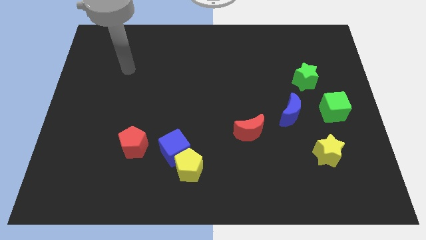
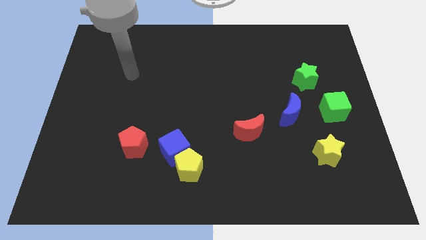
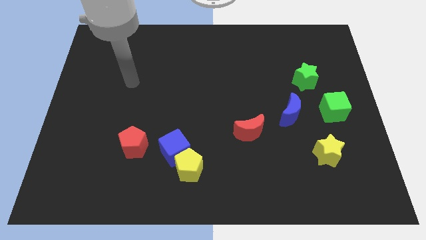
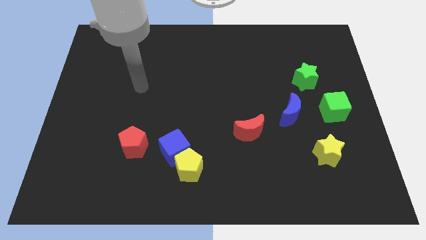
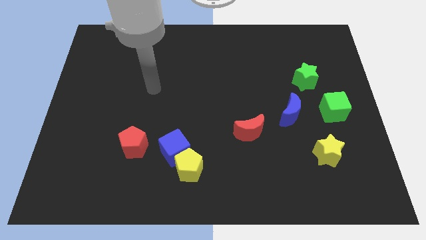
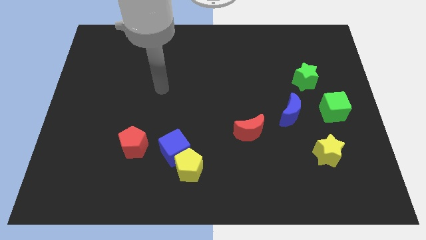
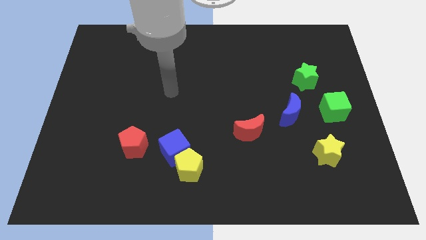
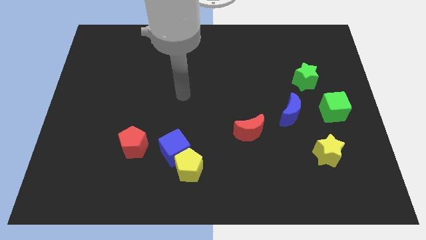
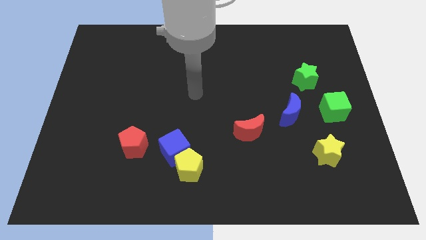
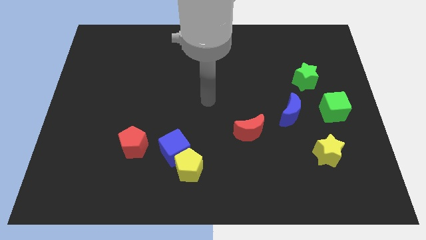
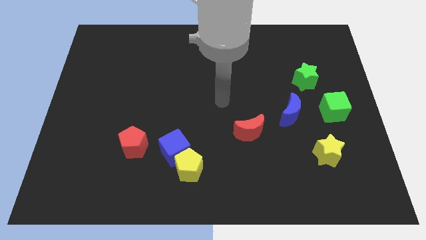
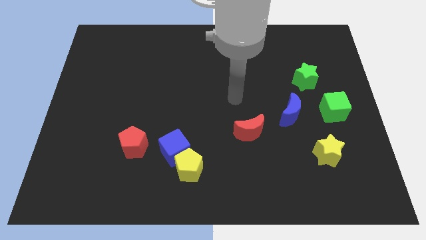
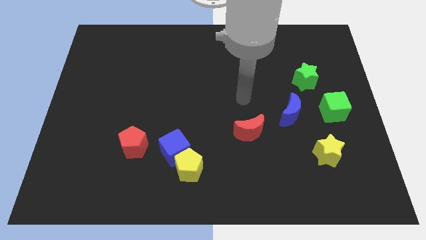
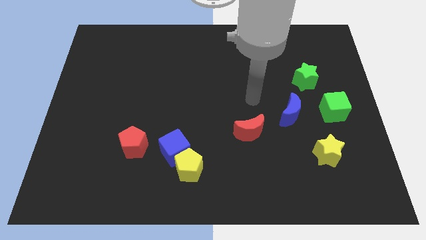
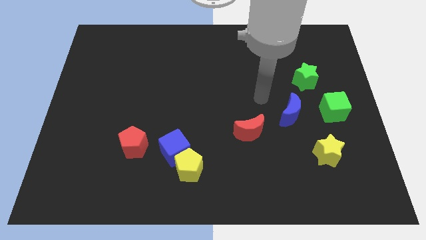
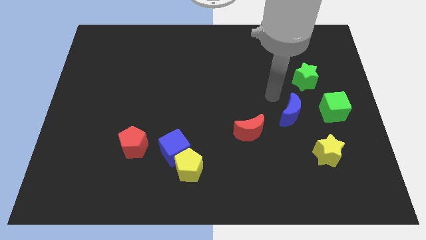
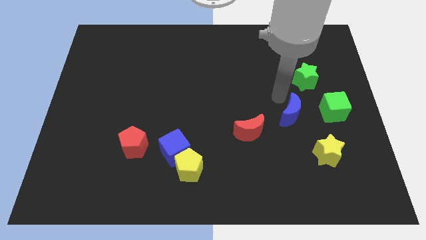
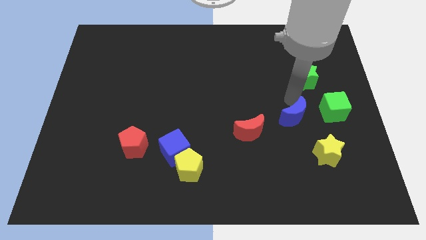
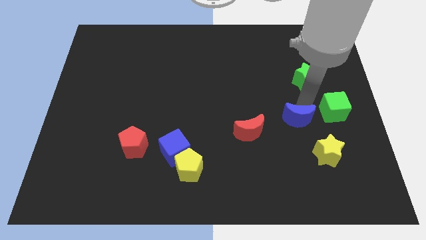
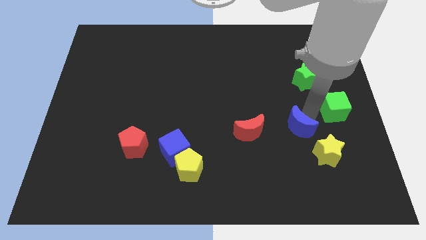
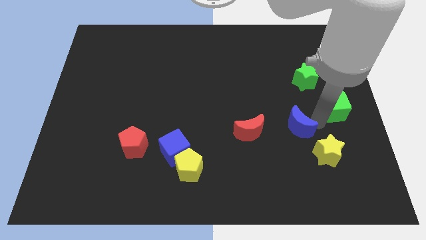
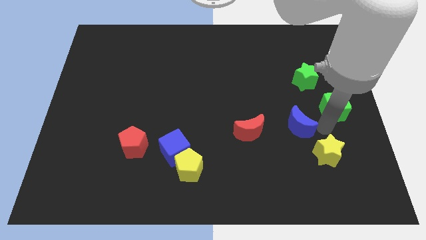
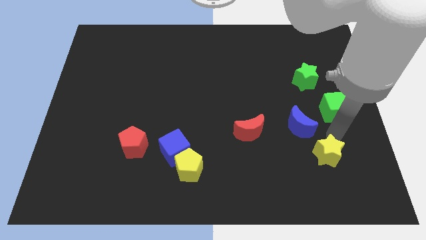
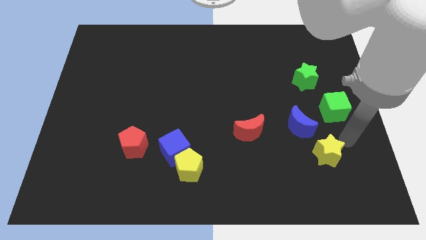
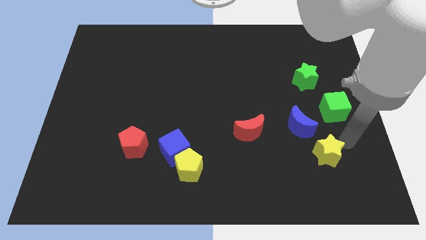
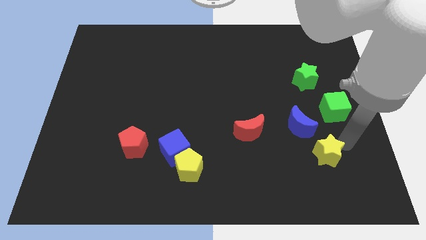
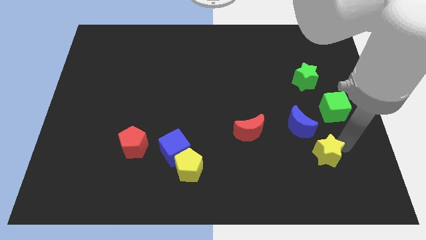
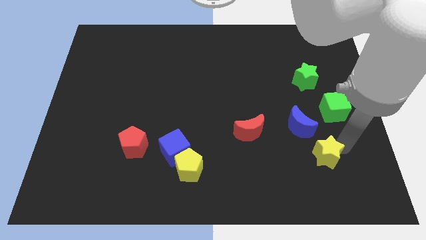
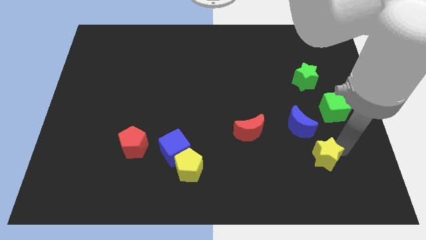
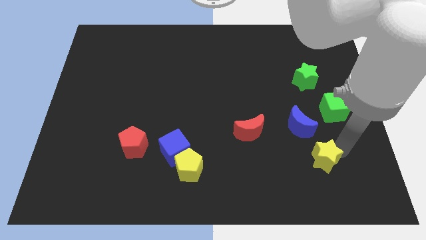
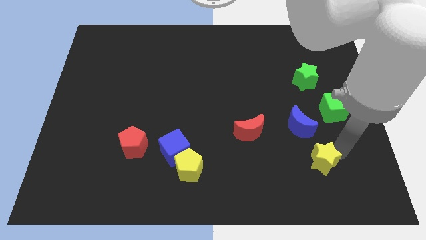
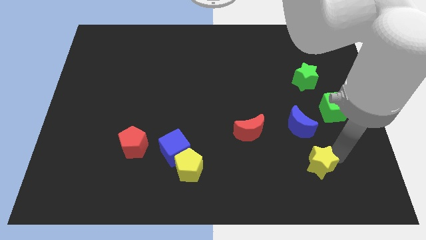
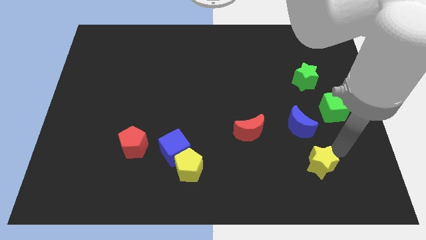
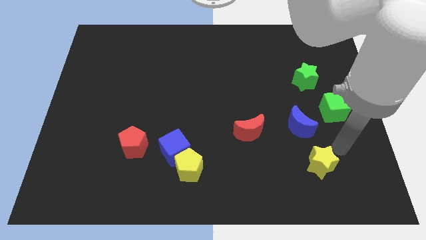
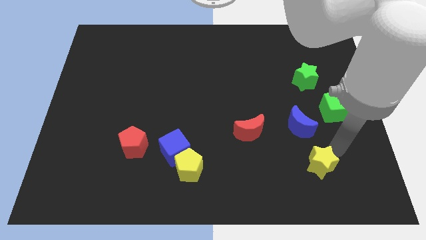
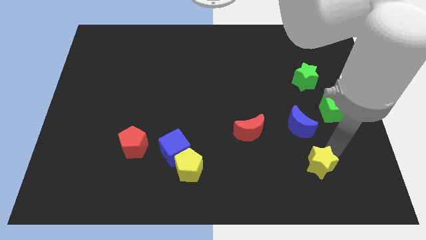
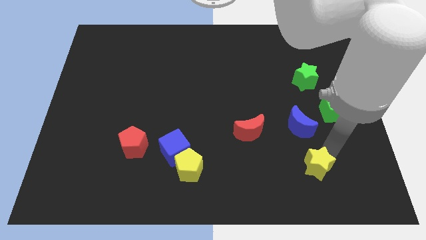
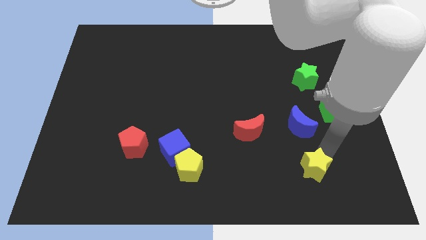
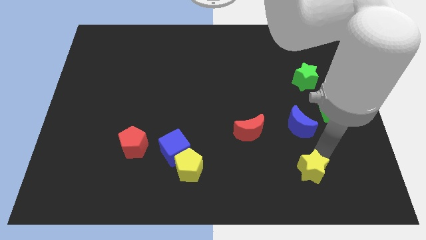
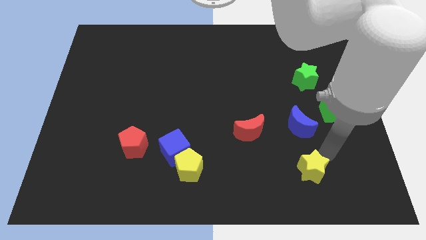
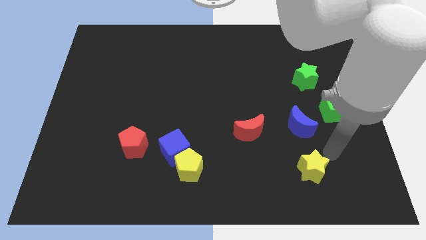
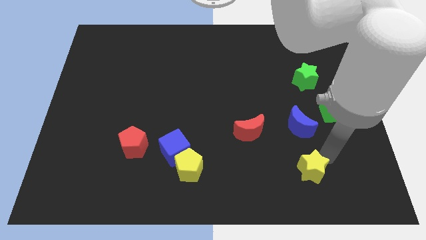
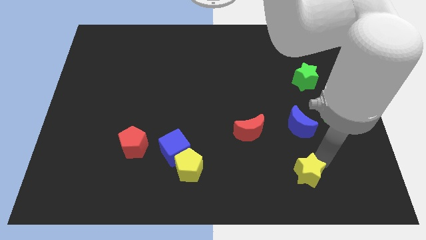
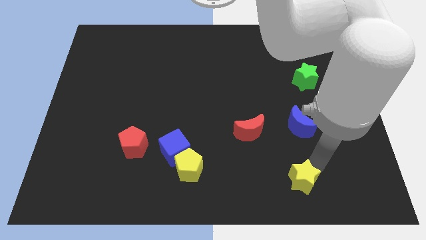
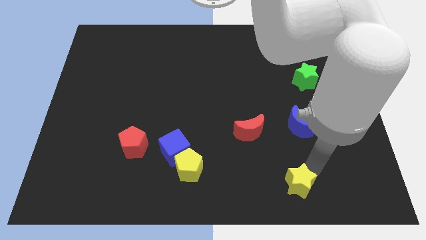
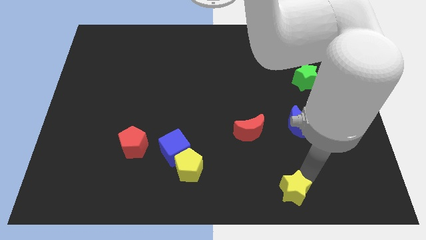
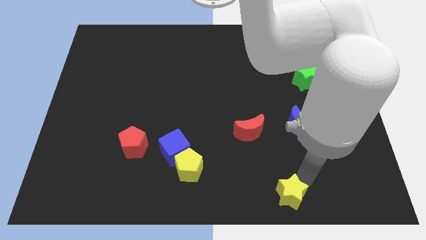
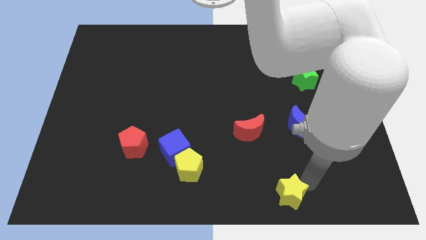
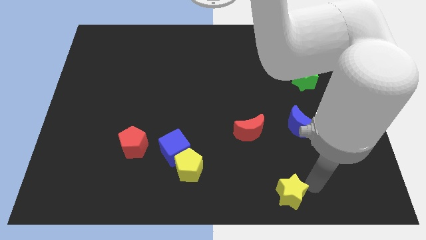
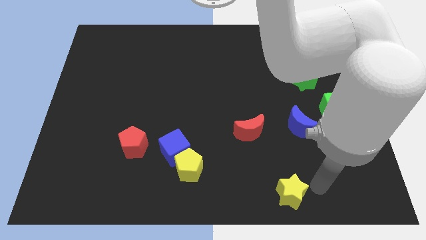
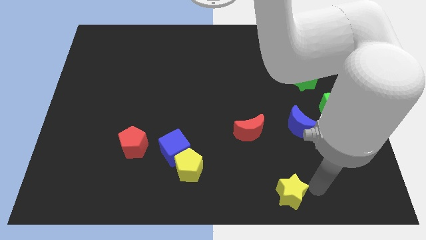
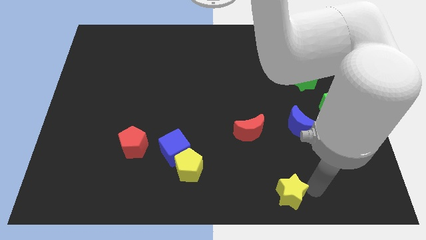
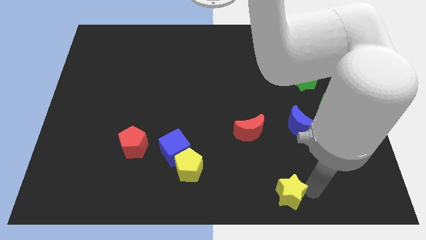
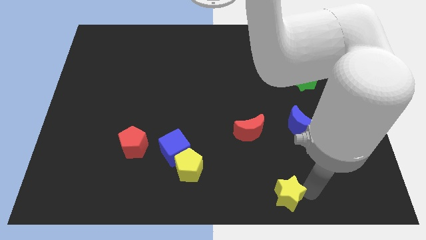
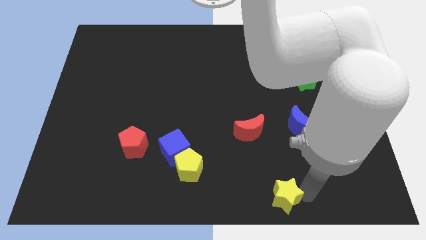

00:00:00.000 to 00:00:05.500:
push the yellow star to the bottom side

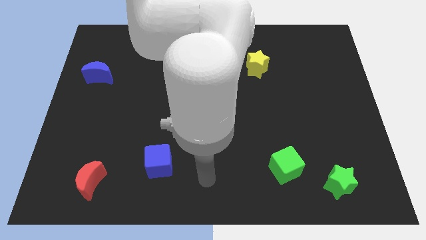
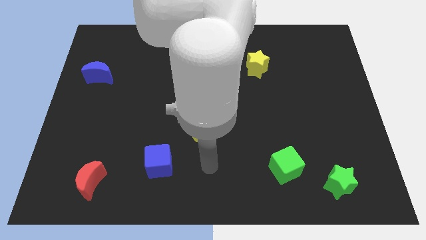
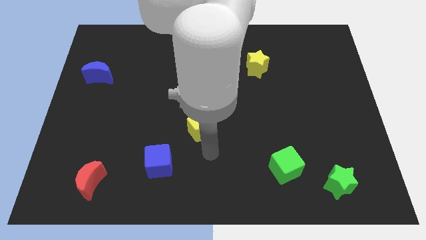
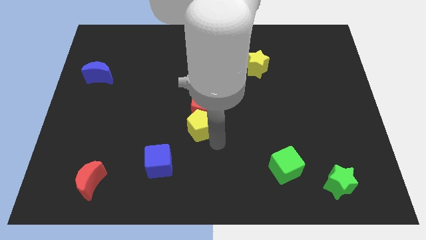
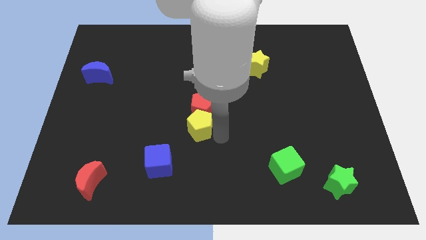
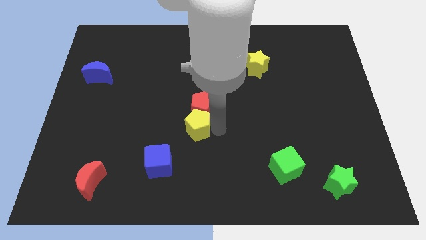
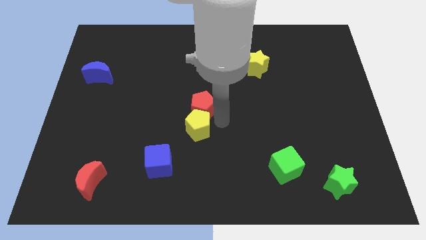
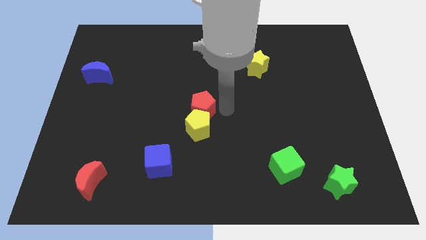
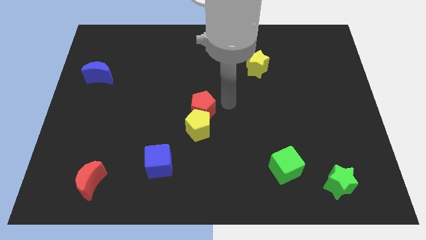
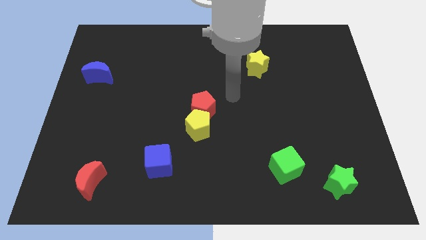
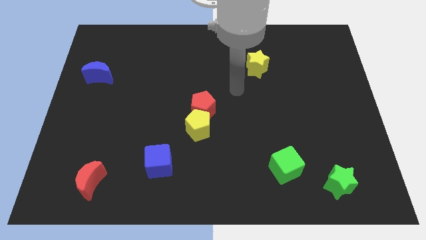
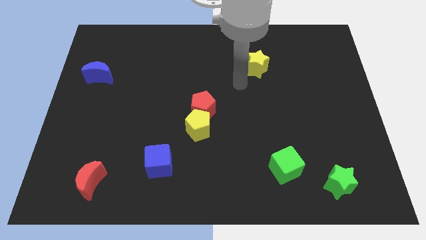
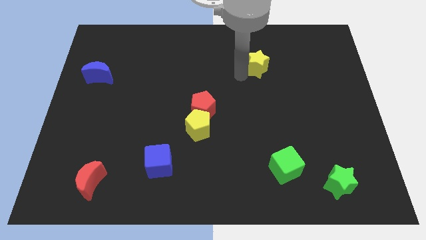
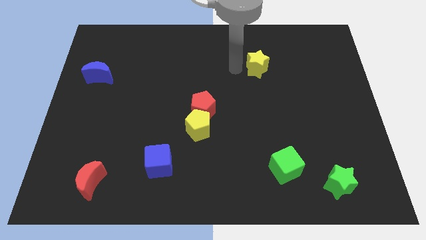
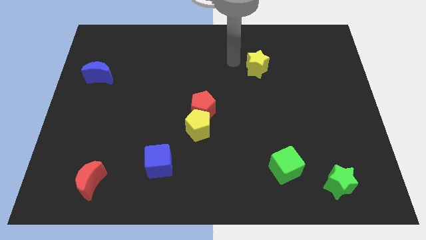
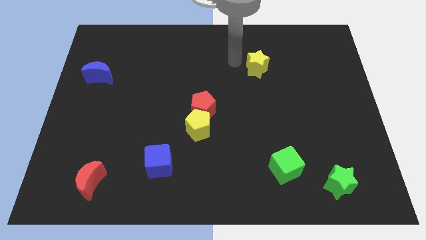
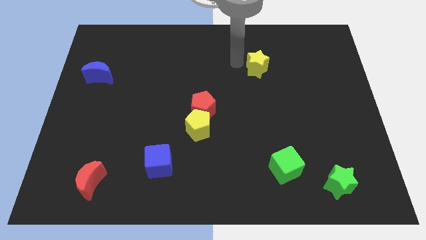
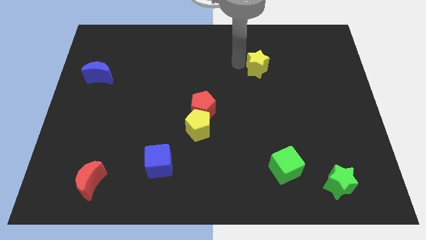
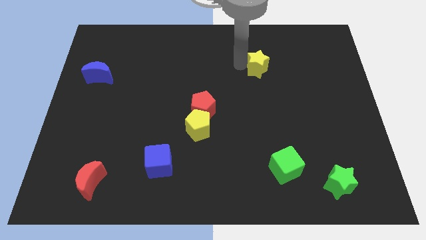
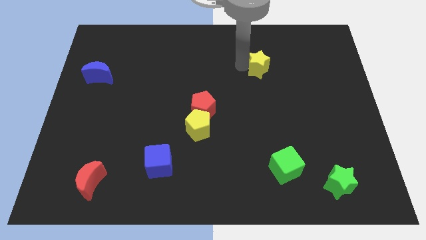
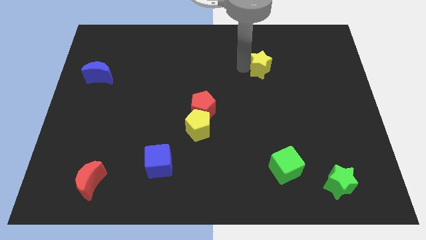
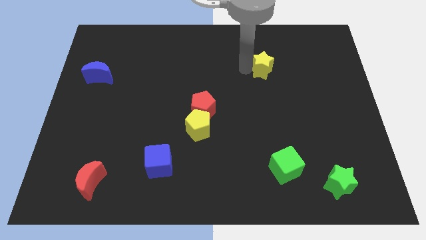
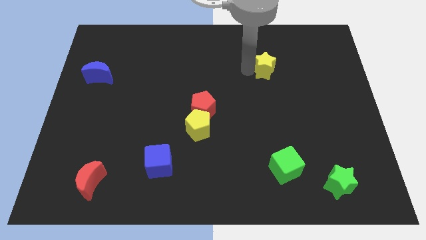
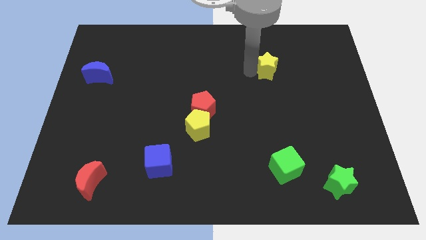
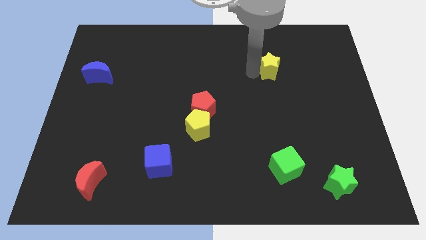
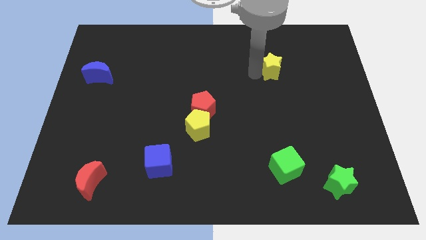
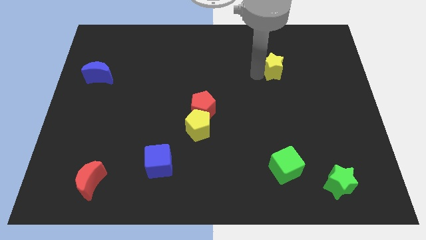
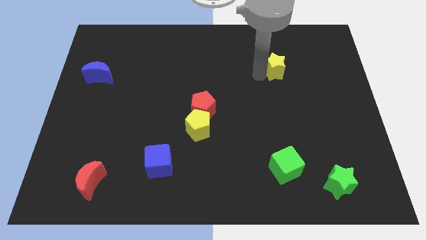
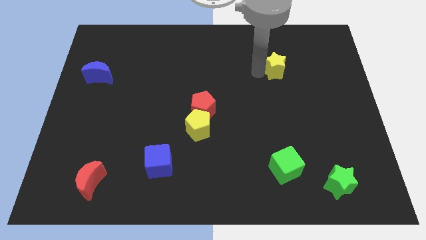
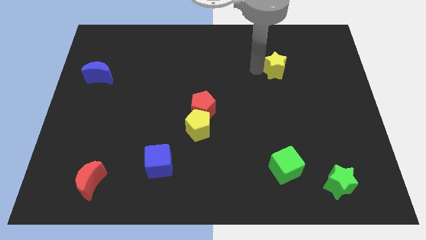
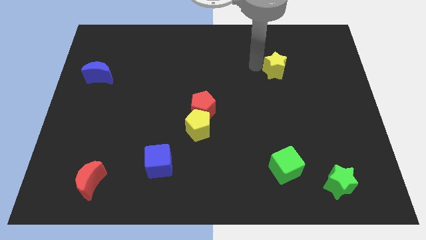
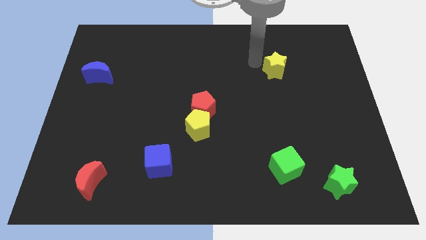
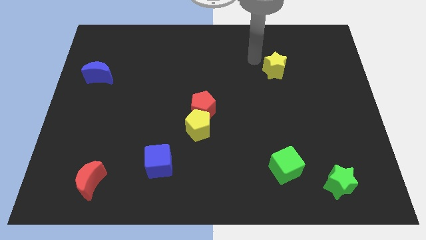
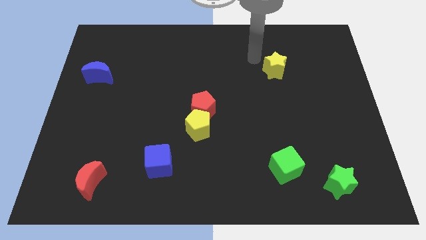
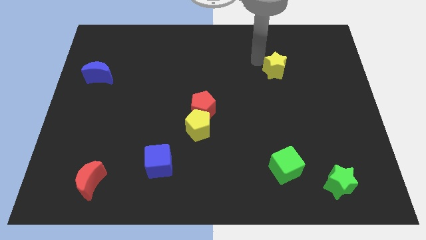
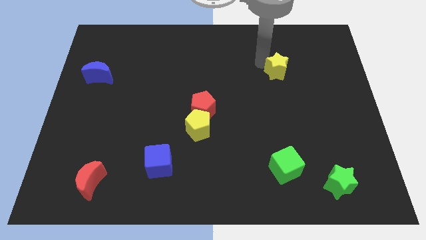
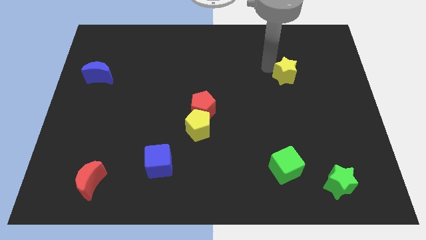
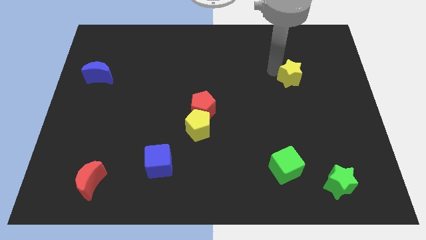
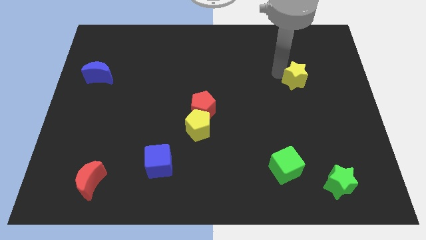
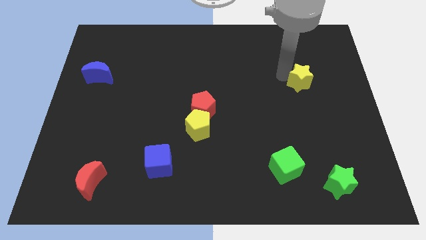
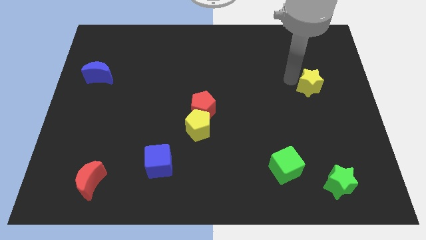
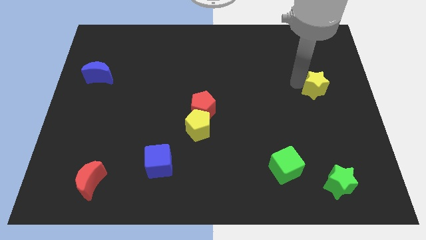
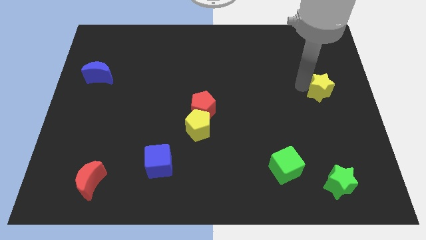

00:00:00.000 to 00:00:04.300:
push the yellow star to the right side of the board
